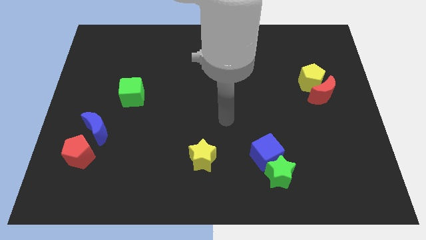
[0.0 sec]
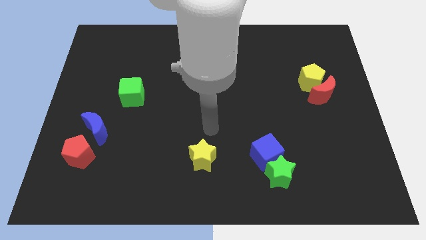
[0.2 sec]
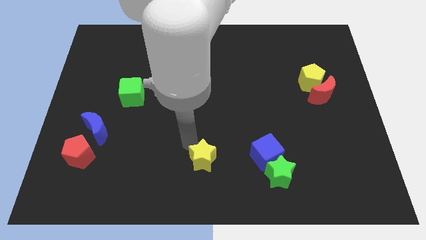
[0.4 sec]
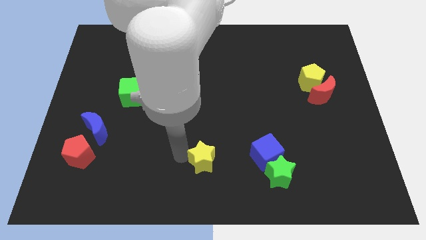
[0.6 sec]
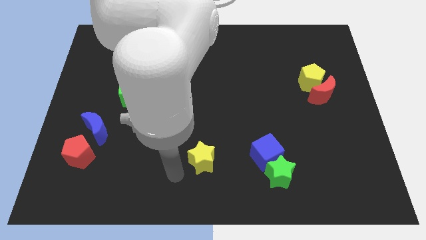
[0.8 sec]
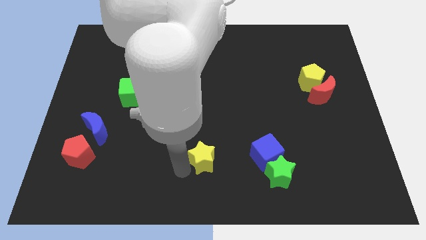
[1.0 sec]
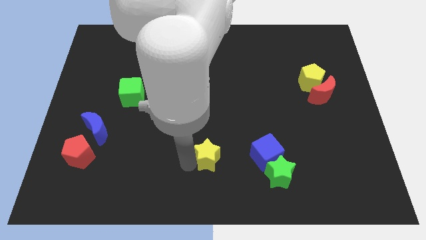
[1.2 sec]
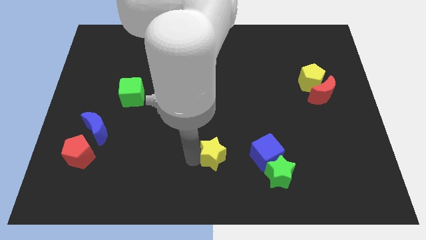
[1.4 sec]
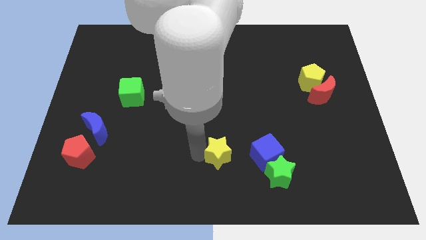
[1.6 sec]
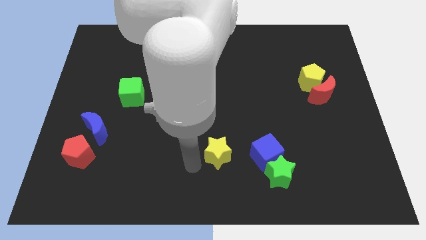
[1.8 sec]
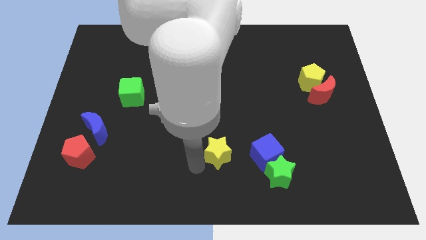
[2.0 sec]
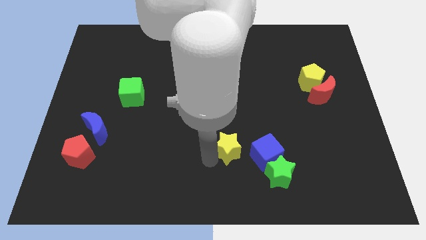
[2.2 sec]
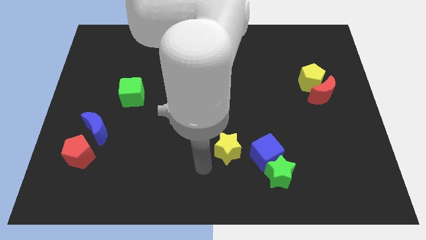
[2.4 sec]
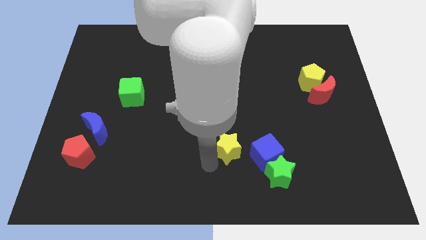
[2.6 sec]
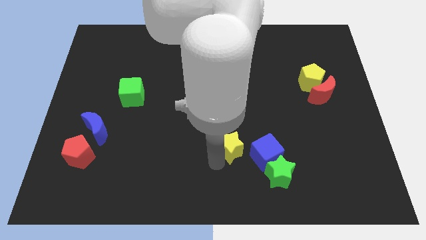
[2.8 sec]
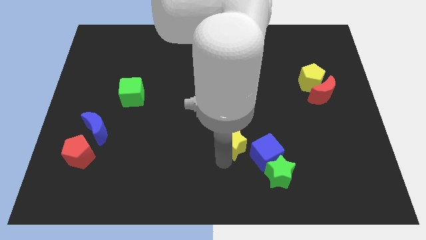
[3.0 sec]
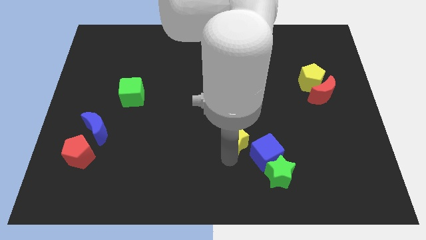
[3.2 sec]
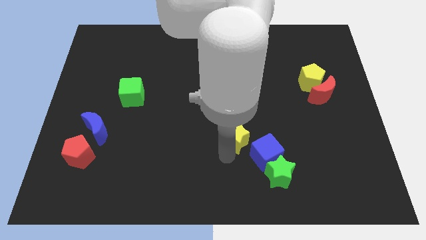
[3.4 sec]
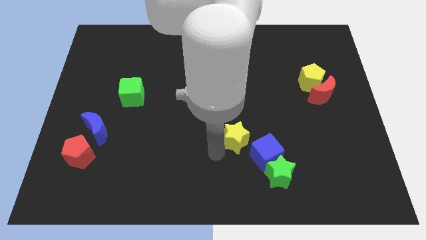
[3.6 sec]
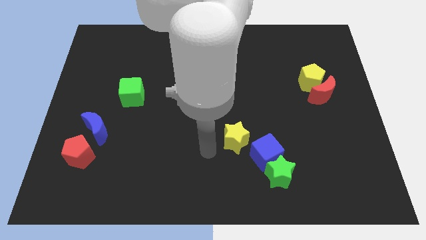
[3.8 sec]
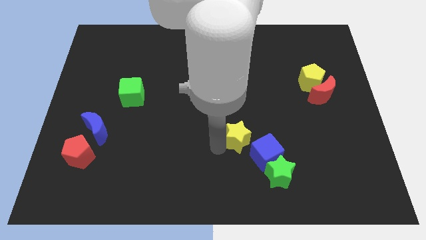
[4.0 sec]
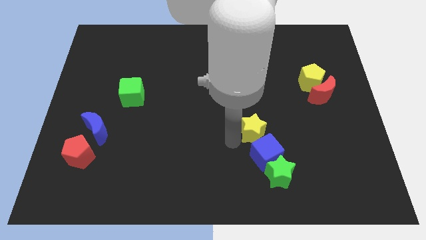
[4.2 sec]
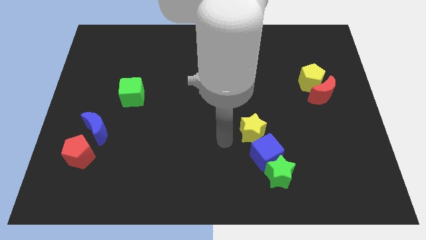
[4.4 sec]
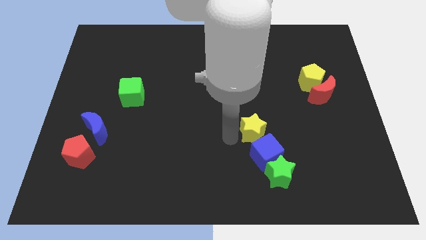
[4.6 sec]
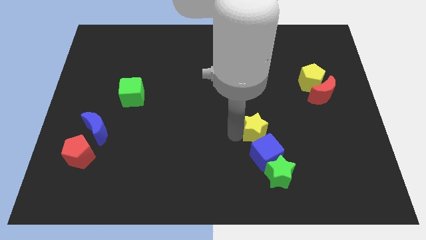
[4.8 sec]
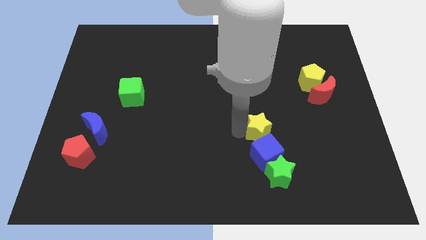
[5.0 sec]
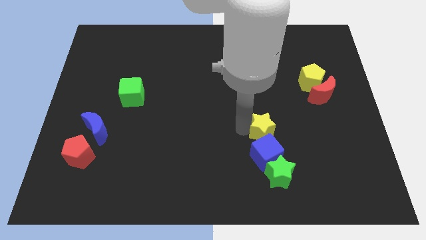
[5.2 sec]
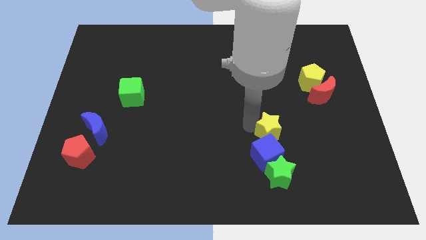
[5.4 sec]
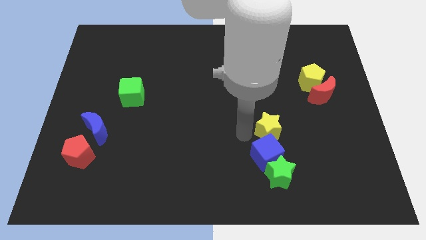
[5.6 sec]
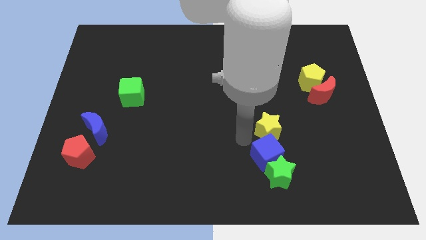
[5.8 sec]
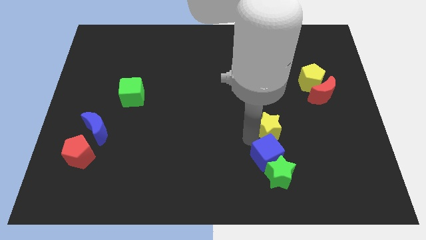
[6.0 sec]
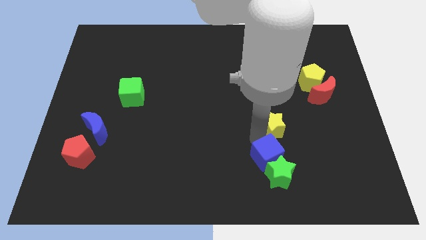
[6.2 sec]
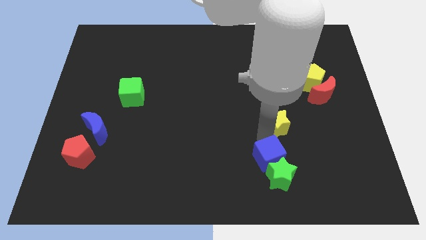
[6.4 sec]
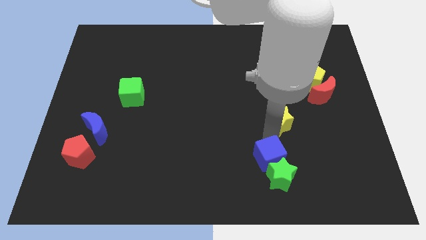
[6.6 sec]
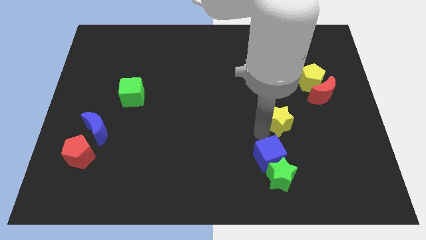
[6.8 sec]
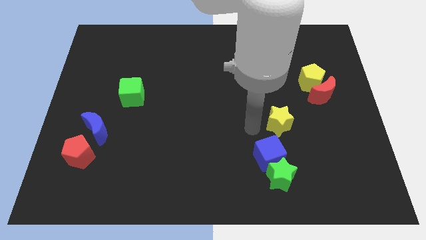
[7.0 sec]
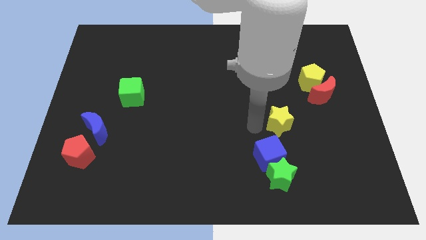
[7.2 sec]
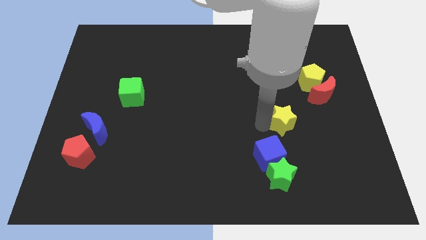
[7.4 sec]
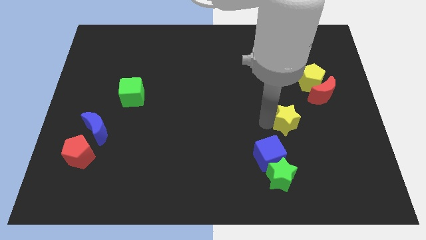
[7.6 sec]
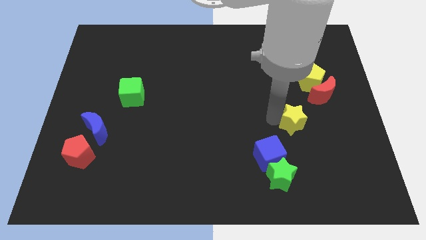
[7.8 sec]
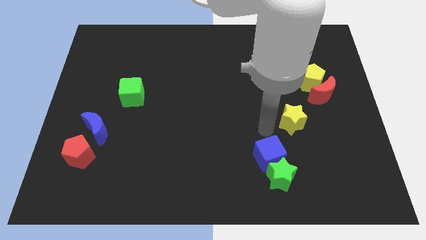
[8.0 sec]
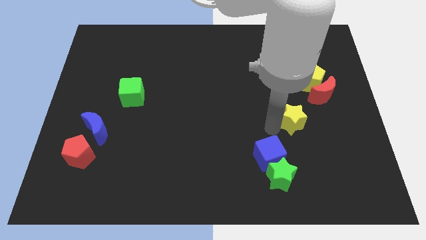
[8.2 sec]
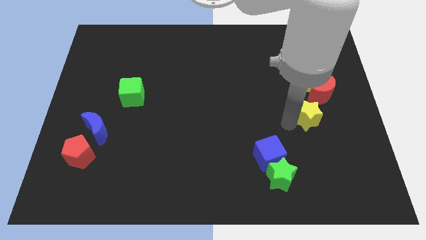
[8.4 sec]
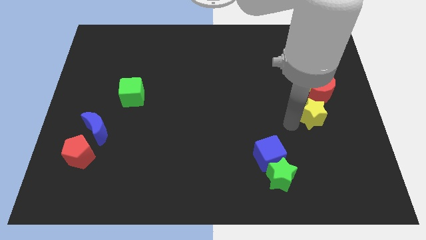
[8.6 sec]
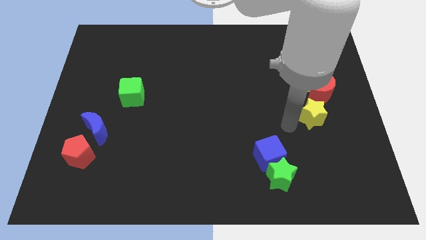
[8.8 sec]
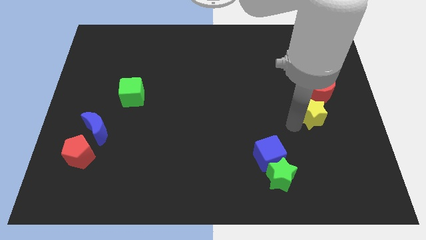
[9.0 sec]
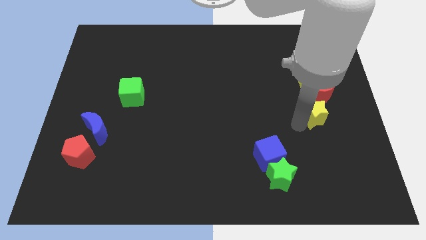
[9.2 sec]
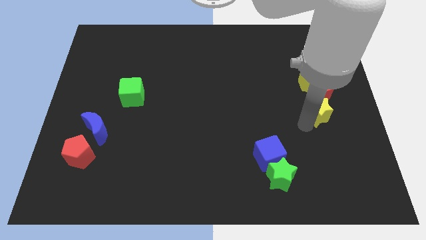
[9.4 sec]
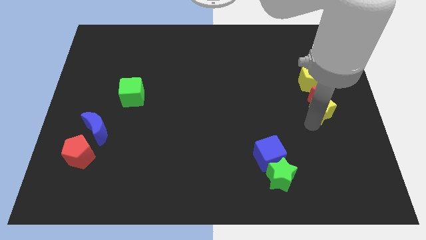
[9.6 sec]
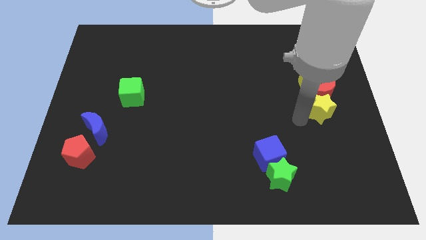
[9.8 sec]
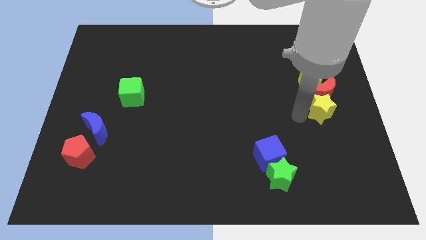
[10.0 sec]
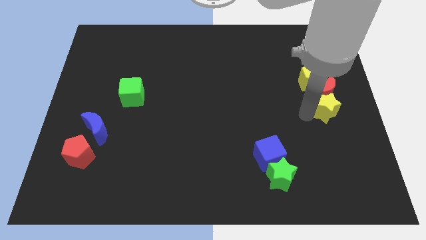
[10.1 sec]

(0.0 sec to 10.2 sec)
move the yellow star to the right side

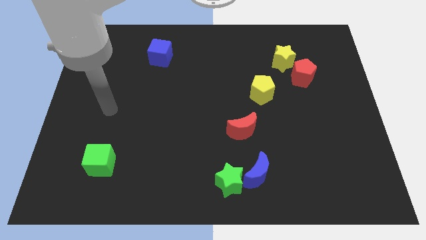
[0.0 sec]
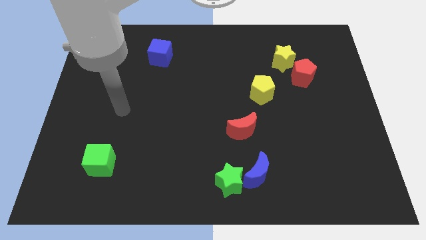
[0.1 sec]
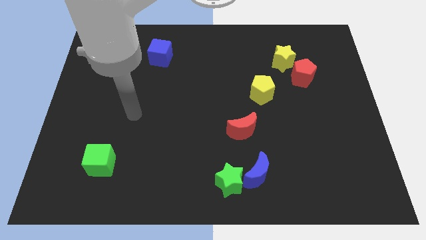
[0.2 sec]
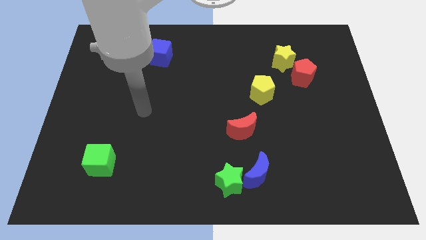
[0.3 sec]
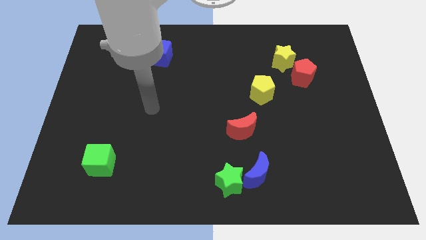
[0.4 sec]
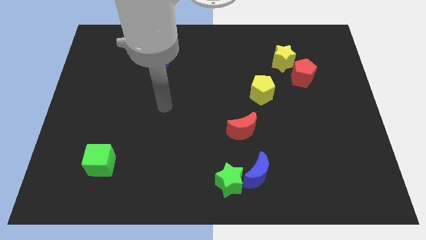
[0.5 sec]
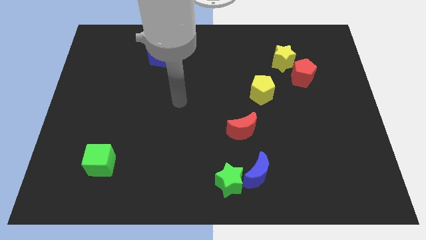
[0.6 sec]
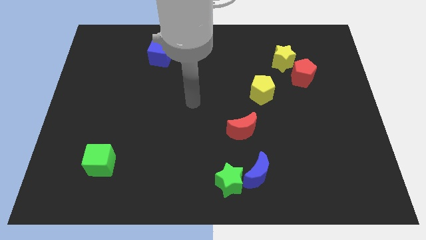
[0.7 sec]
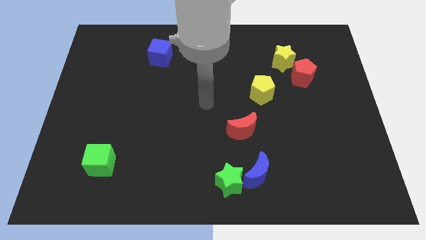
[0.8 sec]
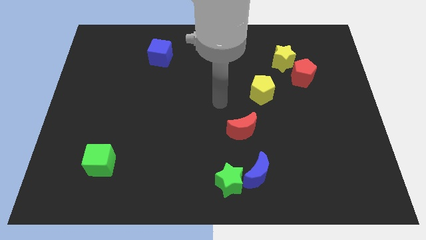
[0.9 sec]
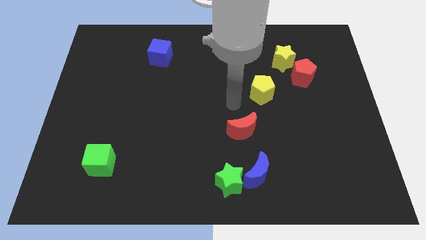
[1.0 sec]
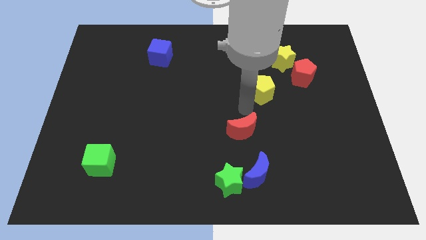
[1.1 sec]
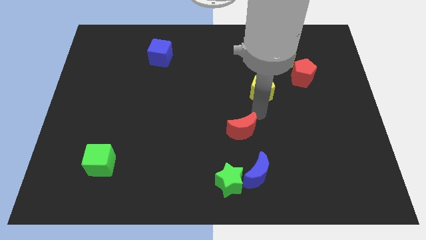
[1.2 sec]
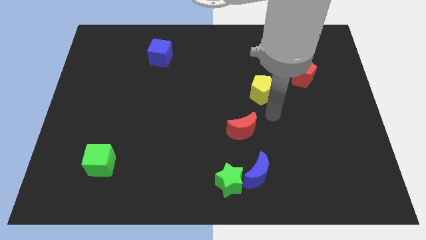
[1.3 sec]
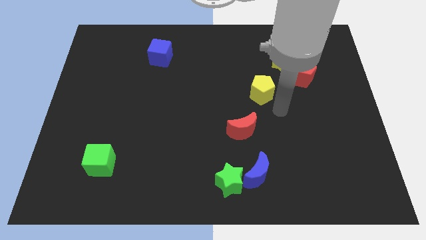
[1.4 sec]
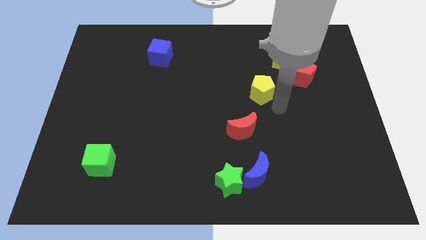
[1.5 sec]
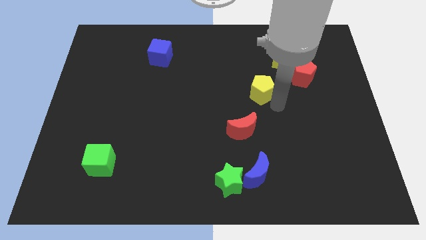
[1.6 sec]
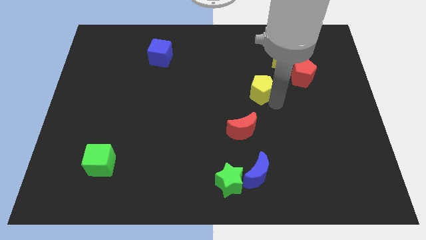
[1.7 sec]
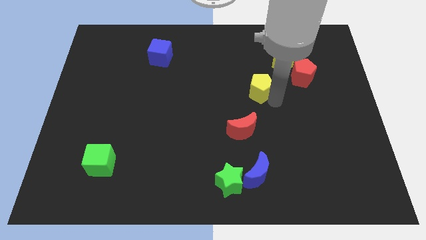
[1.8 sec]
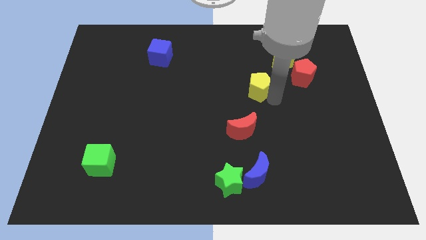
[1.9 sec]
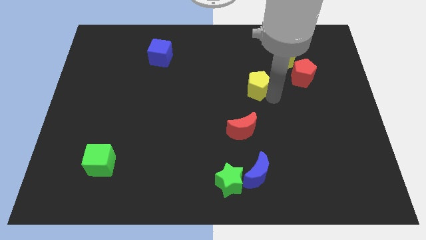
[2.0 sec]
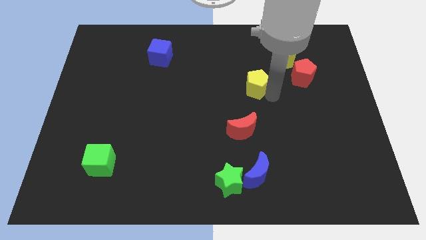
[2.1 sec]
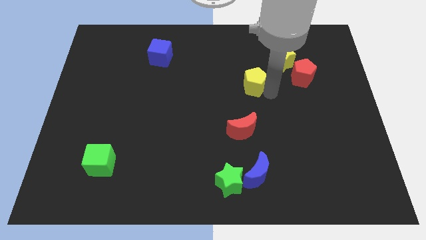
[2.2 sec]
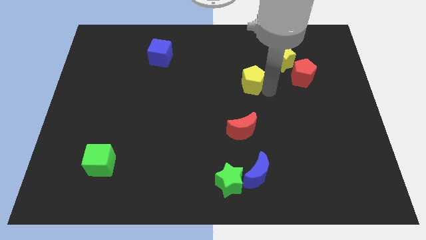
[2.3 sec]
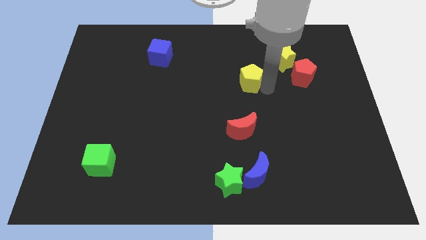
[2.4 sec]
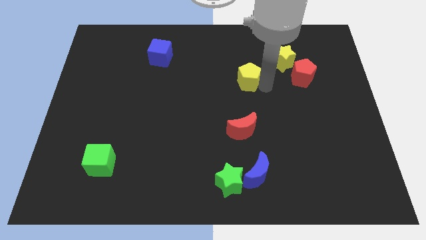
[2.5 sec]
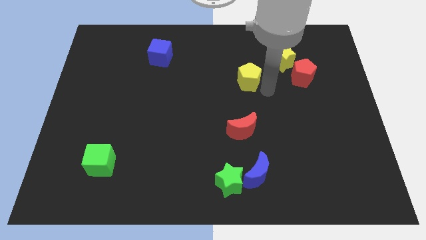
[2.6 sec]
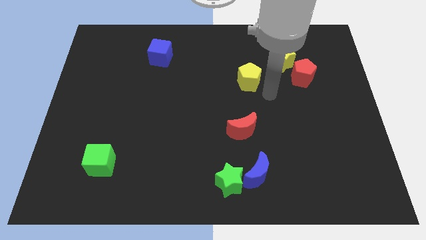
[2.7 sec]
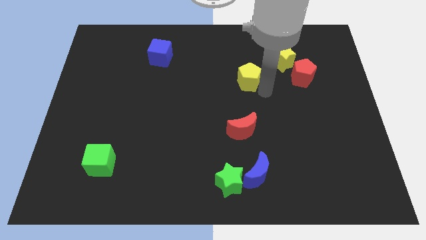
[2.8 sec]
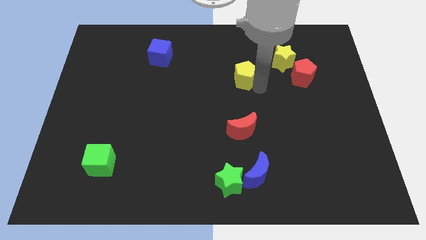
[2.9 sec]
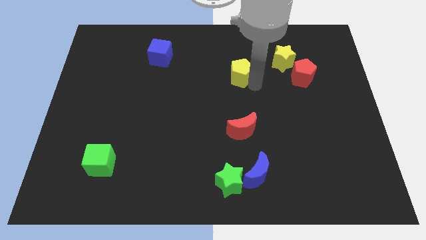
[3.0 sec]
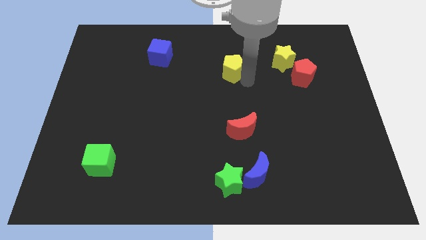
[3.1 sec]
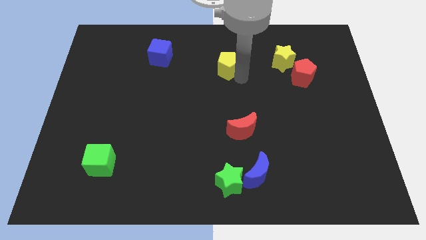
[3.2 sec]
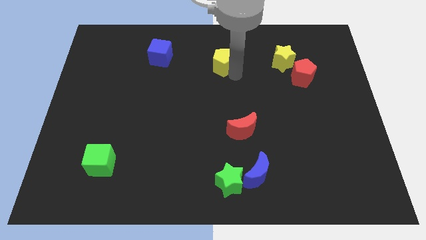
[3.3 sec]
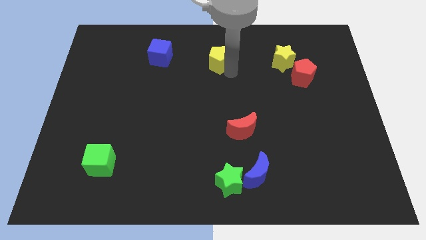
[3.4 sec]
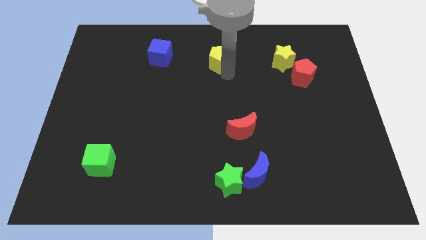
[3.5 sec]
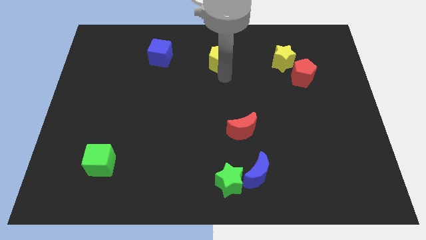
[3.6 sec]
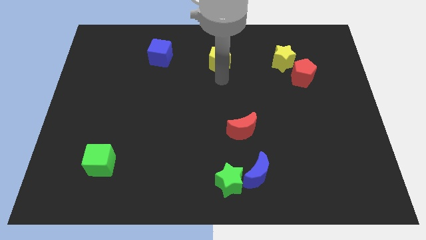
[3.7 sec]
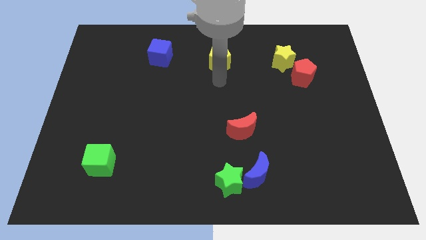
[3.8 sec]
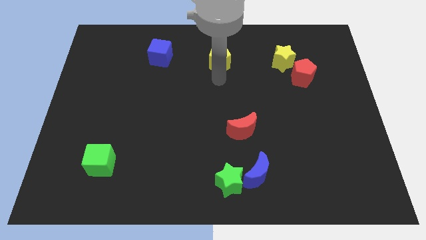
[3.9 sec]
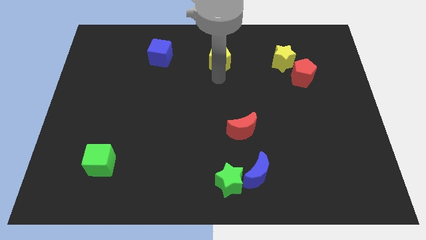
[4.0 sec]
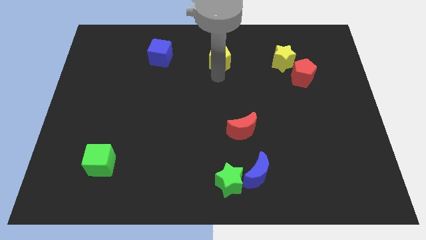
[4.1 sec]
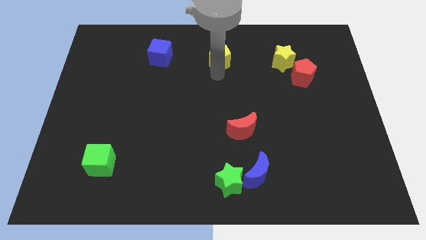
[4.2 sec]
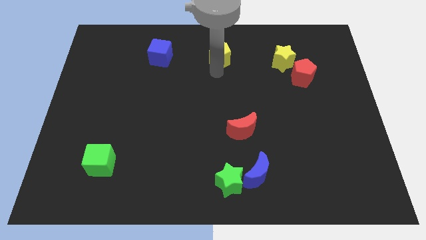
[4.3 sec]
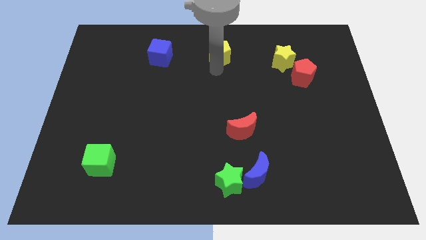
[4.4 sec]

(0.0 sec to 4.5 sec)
push the yellow pentagon to the top
